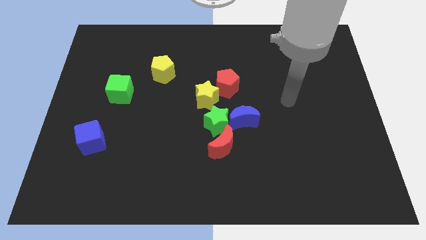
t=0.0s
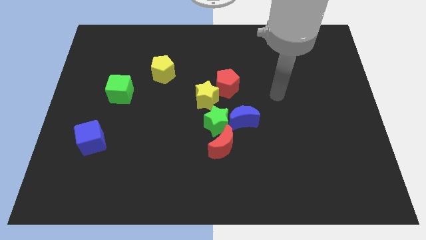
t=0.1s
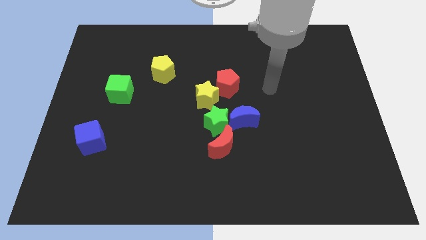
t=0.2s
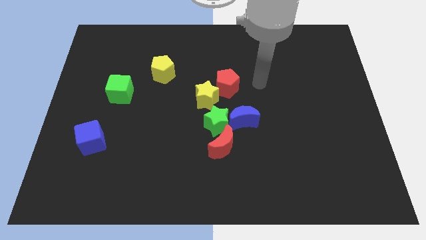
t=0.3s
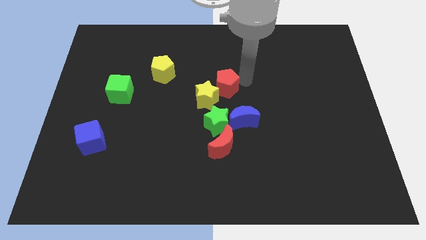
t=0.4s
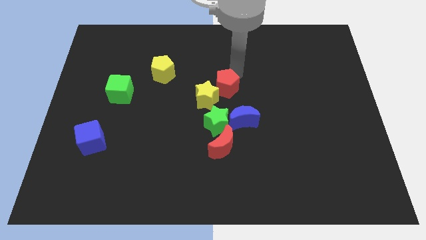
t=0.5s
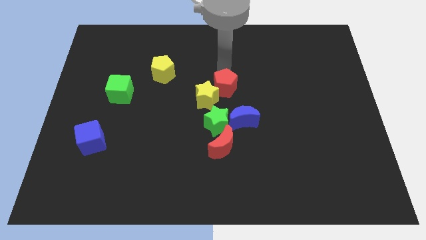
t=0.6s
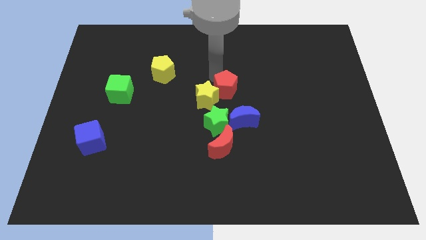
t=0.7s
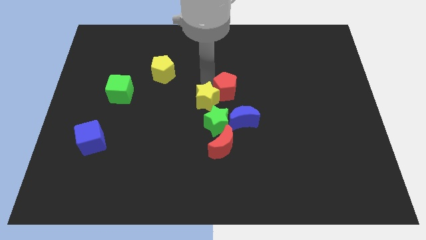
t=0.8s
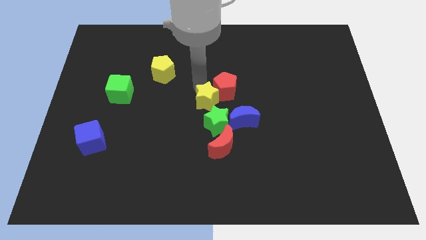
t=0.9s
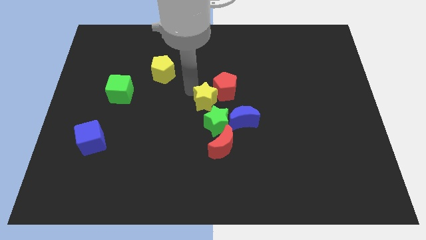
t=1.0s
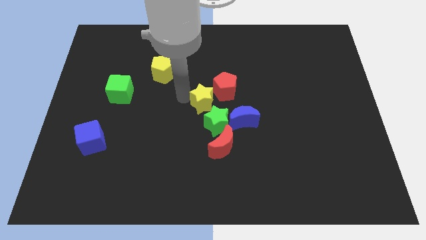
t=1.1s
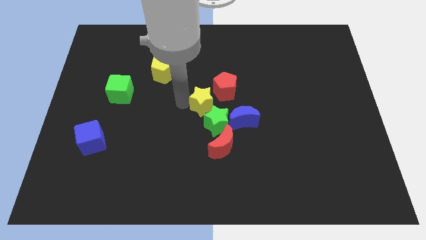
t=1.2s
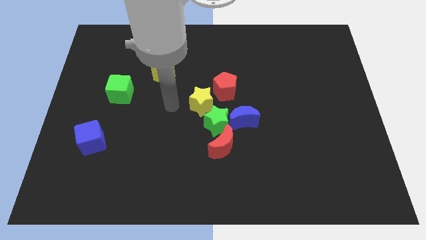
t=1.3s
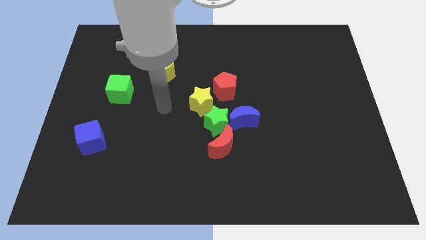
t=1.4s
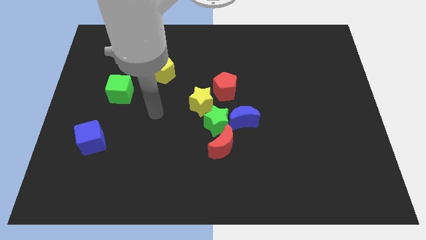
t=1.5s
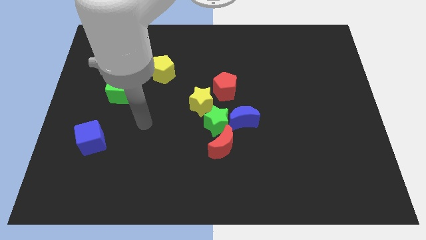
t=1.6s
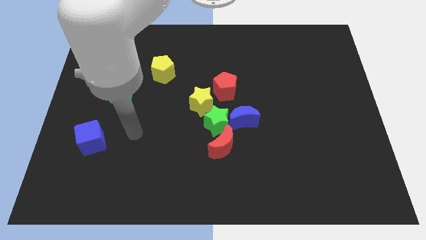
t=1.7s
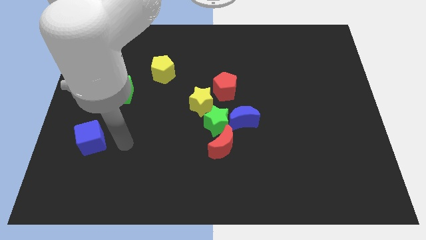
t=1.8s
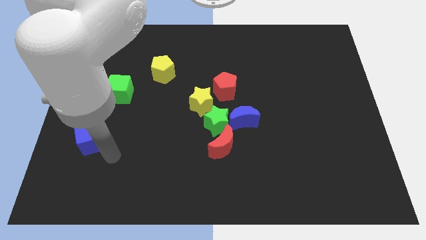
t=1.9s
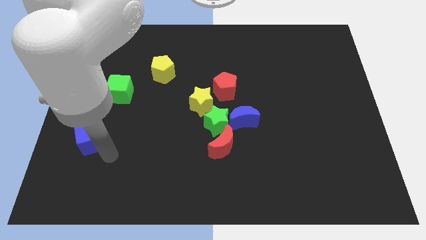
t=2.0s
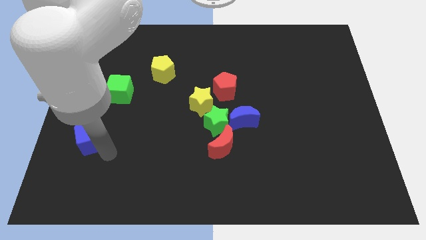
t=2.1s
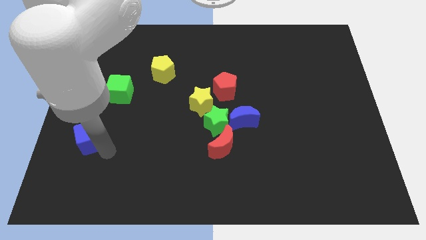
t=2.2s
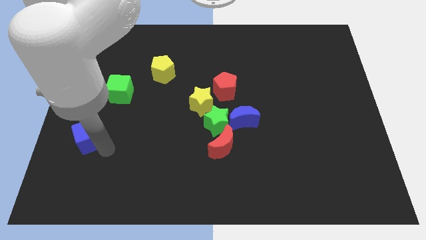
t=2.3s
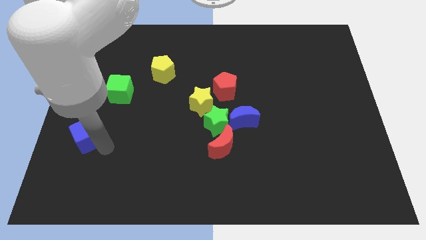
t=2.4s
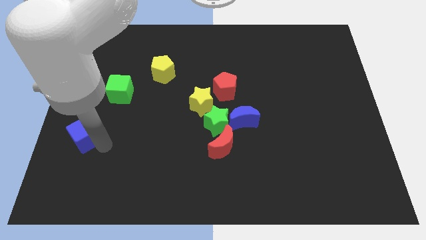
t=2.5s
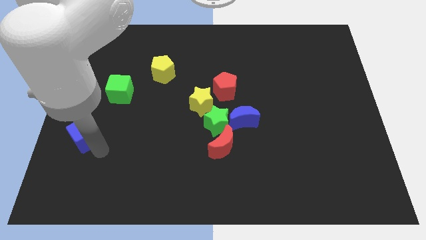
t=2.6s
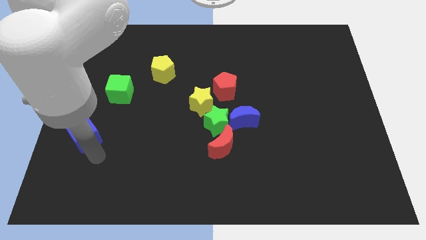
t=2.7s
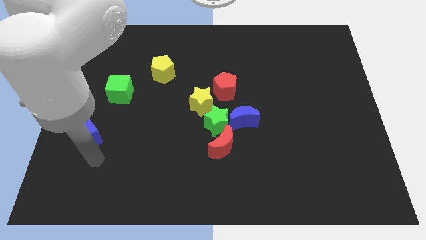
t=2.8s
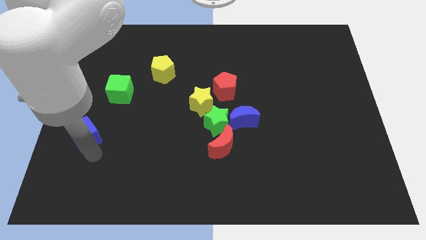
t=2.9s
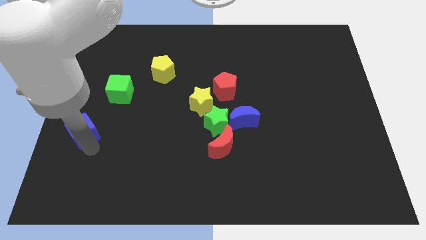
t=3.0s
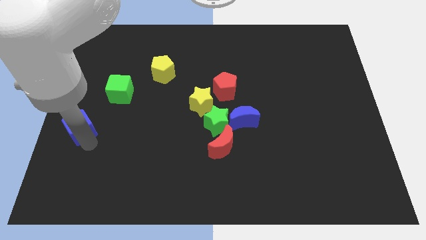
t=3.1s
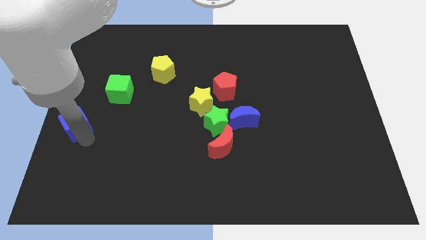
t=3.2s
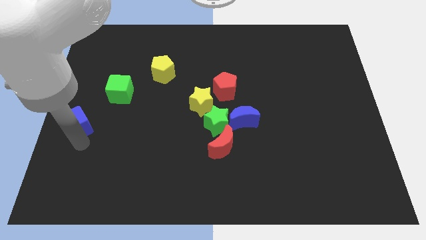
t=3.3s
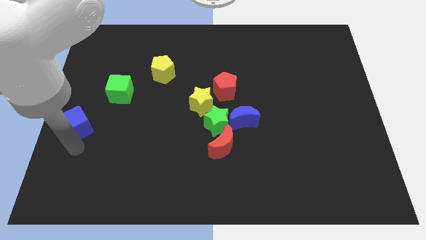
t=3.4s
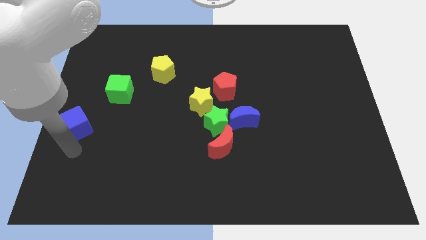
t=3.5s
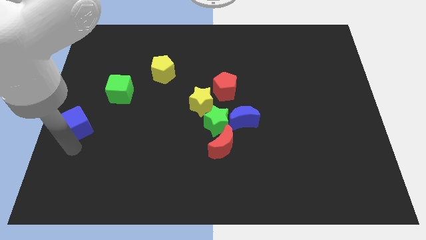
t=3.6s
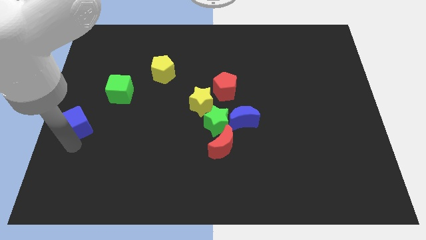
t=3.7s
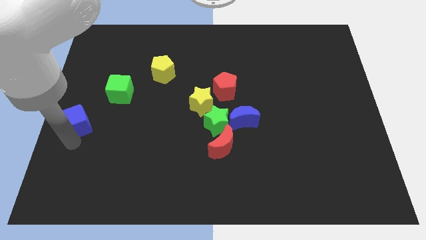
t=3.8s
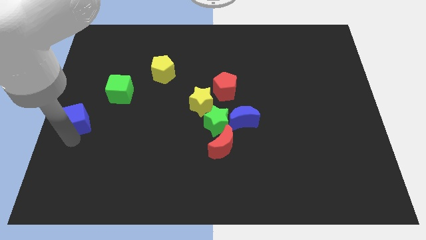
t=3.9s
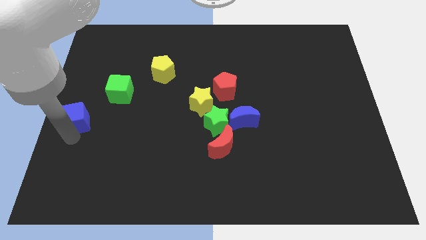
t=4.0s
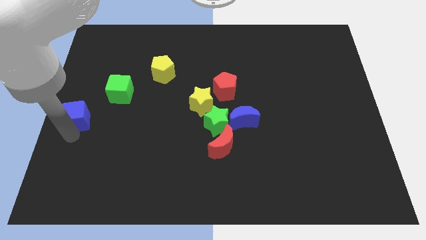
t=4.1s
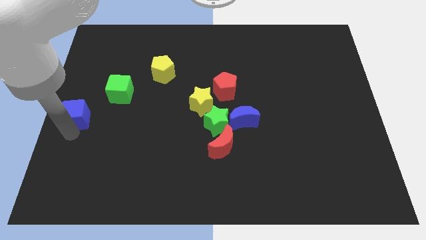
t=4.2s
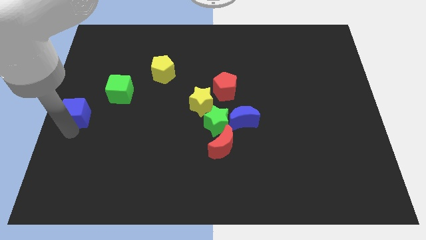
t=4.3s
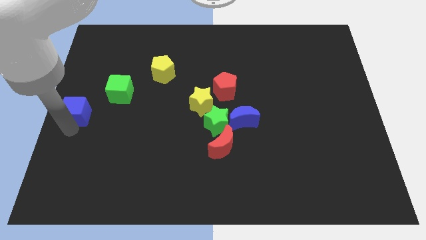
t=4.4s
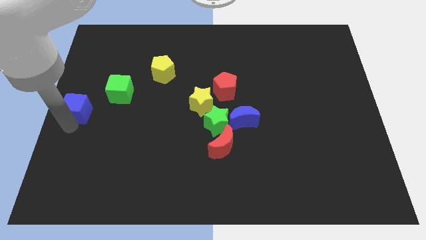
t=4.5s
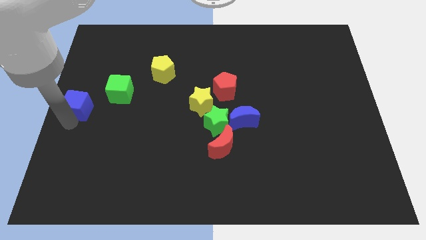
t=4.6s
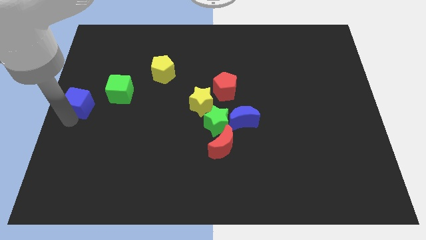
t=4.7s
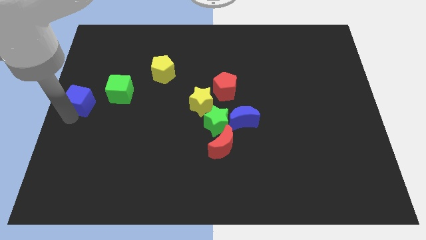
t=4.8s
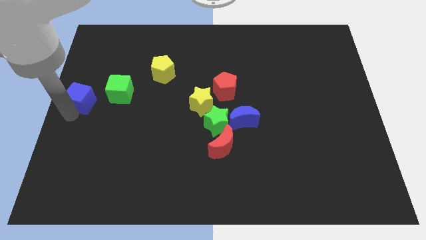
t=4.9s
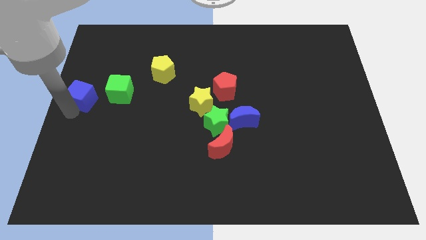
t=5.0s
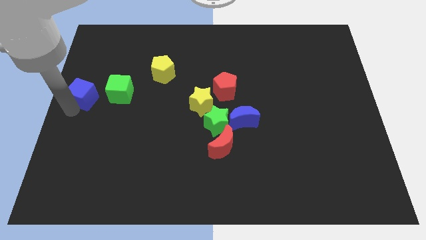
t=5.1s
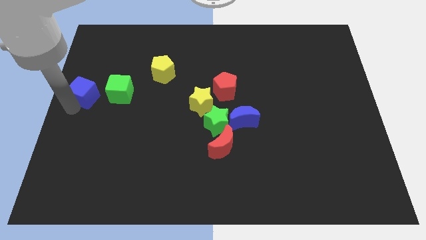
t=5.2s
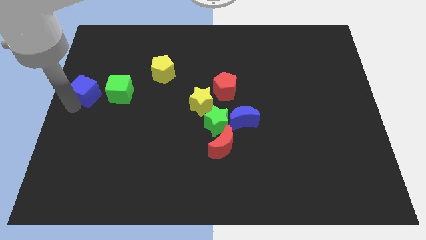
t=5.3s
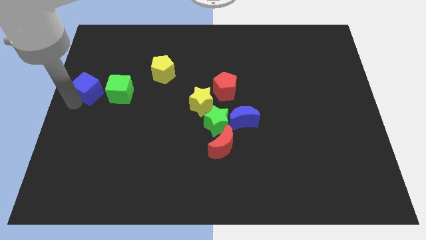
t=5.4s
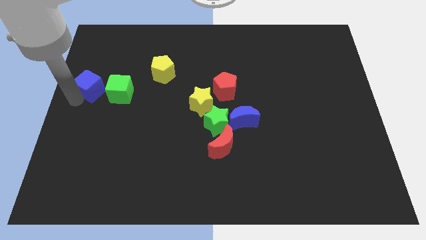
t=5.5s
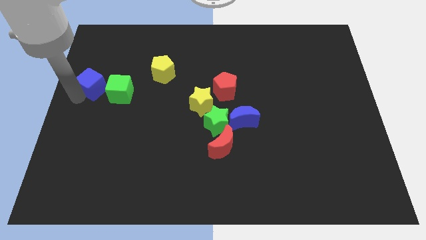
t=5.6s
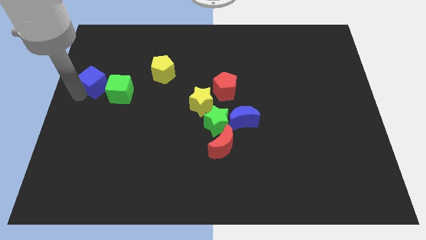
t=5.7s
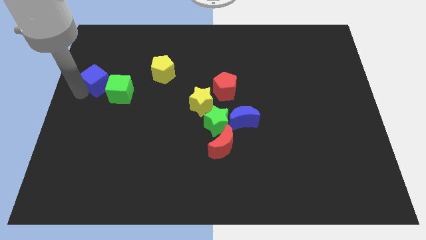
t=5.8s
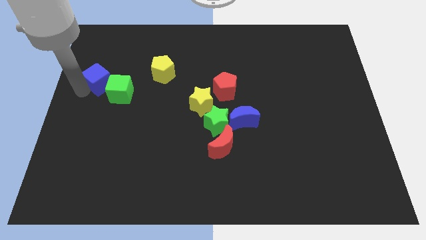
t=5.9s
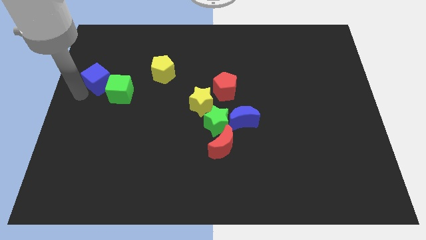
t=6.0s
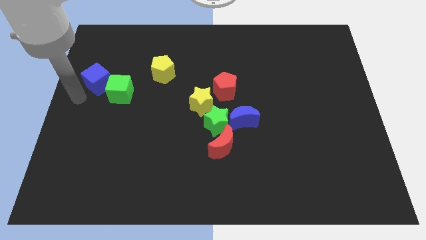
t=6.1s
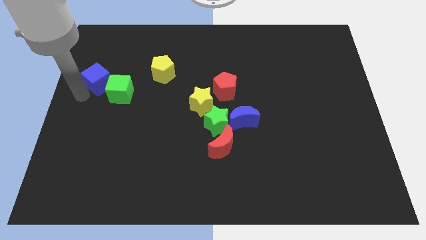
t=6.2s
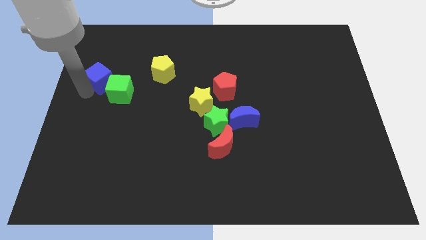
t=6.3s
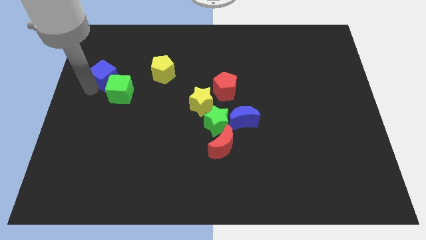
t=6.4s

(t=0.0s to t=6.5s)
push the blue cube to the top side of the green cube

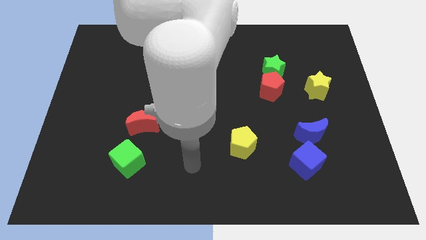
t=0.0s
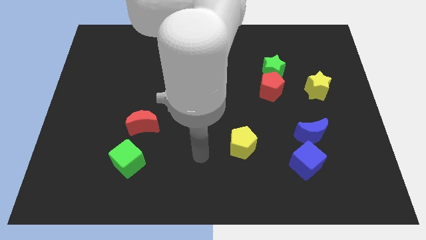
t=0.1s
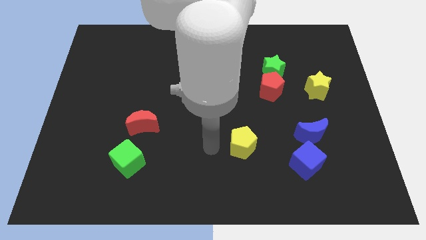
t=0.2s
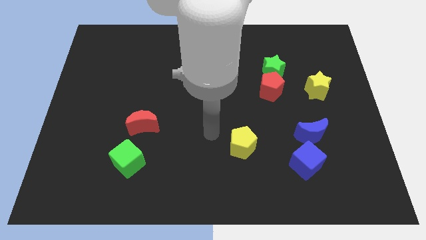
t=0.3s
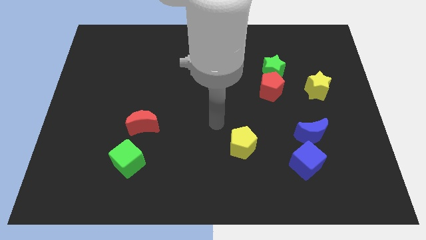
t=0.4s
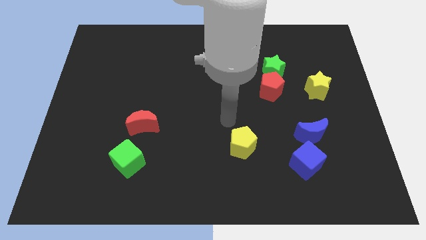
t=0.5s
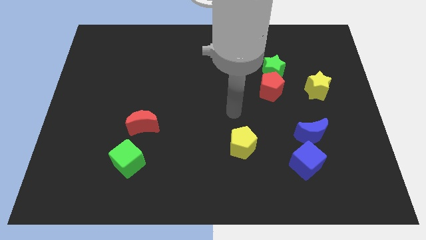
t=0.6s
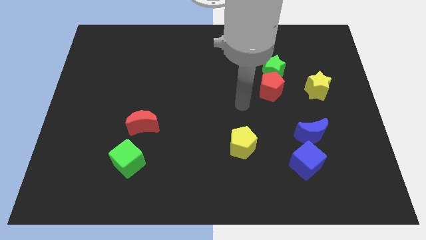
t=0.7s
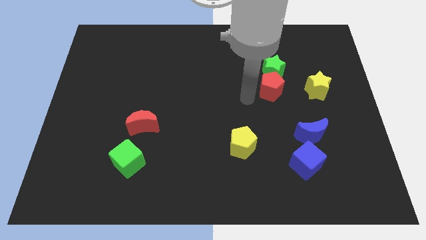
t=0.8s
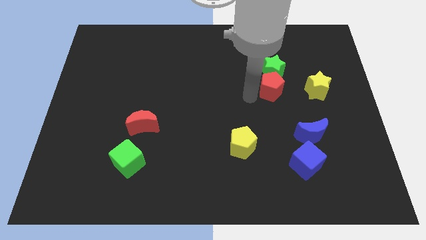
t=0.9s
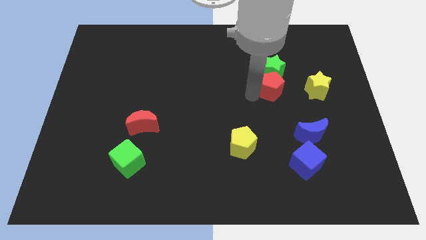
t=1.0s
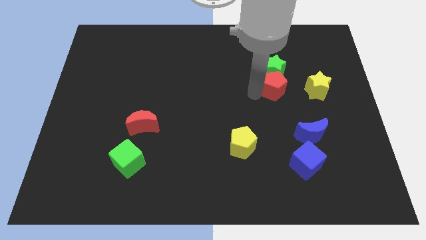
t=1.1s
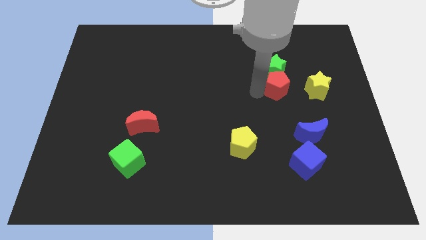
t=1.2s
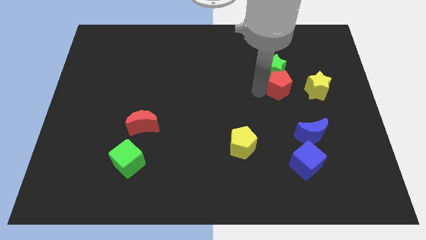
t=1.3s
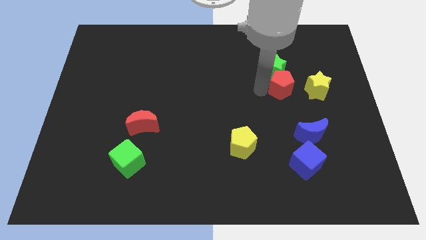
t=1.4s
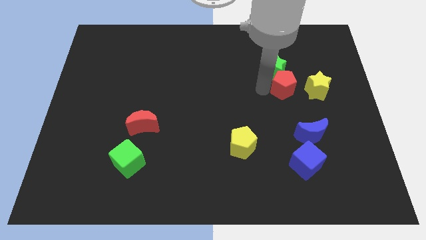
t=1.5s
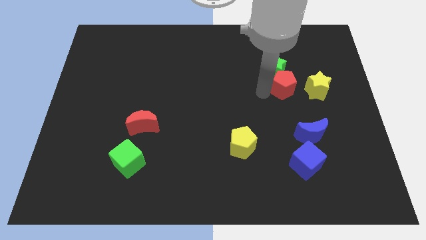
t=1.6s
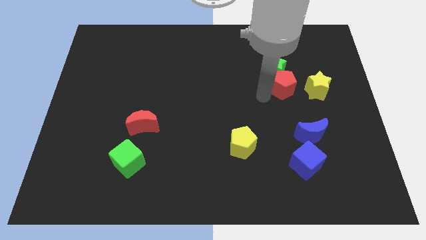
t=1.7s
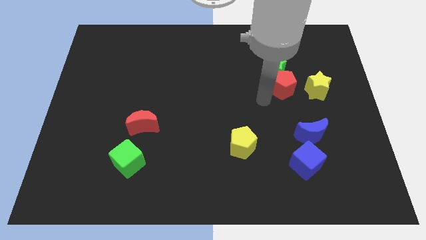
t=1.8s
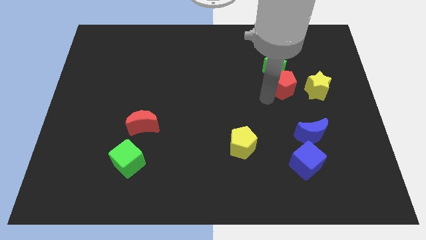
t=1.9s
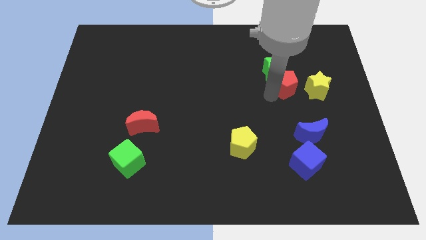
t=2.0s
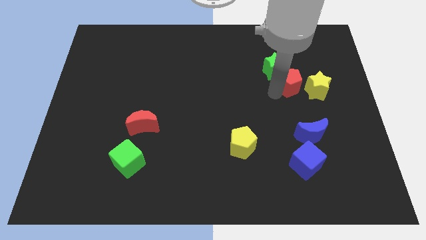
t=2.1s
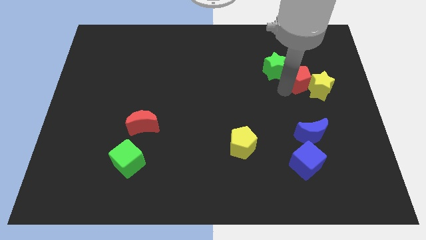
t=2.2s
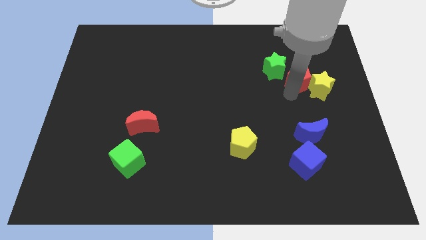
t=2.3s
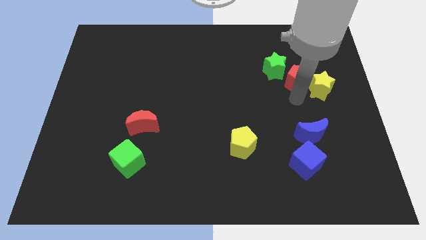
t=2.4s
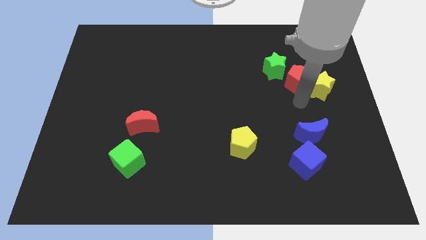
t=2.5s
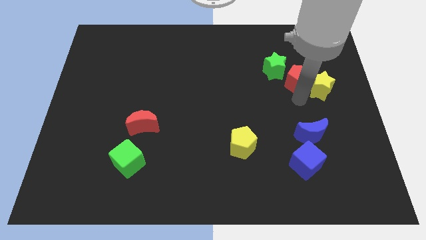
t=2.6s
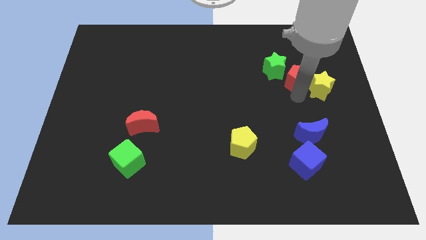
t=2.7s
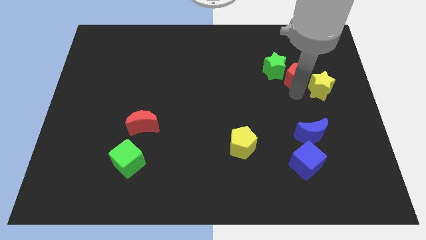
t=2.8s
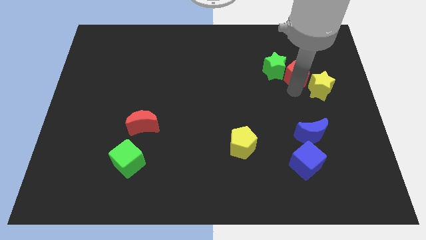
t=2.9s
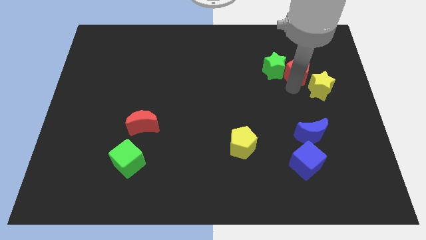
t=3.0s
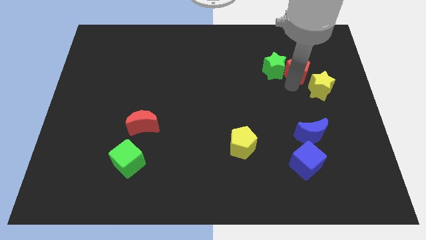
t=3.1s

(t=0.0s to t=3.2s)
slide the red pentagon to the top right of the green star
